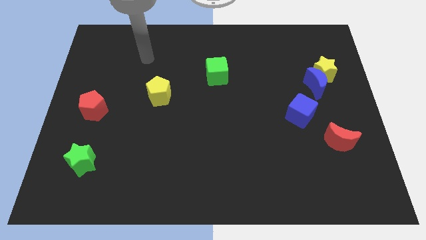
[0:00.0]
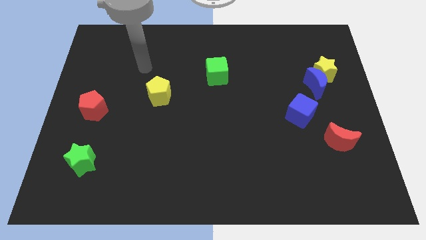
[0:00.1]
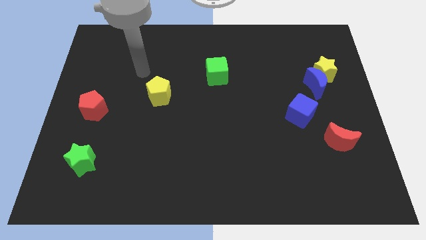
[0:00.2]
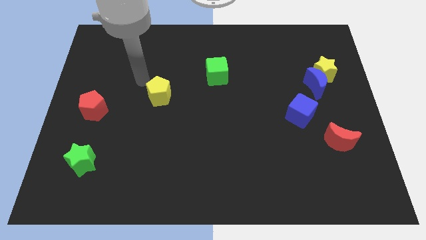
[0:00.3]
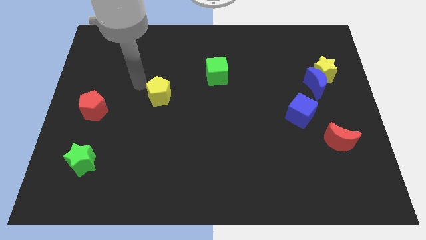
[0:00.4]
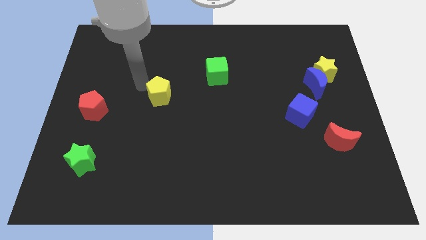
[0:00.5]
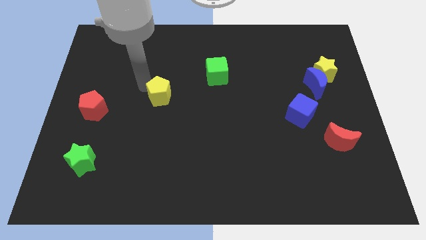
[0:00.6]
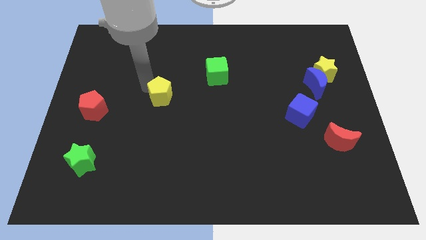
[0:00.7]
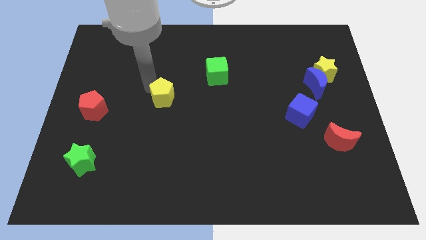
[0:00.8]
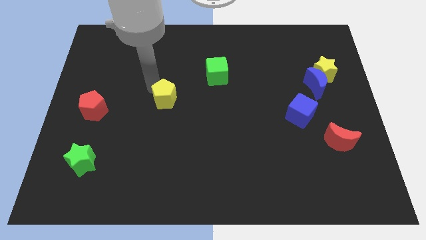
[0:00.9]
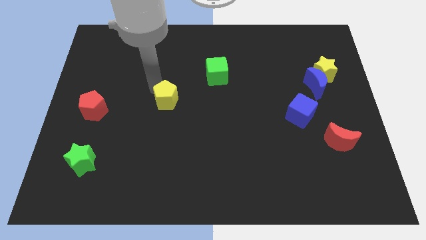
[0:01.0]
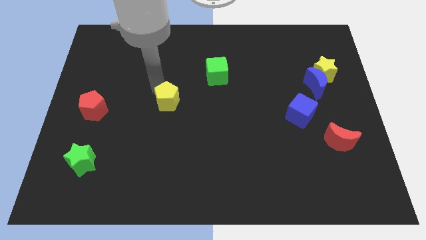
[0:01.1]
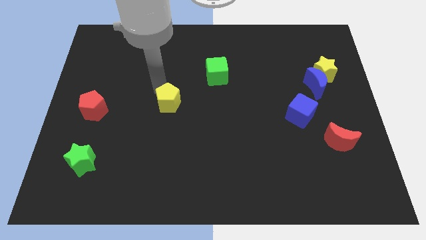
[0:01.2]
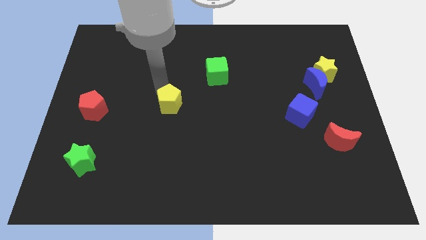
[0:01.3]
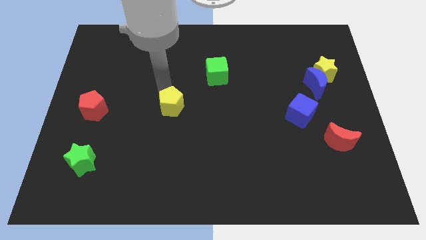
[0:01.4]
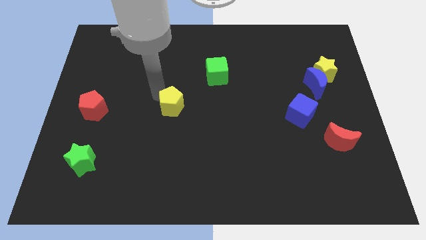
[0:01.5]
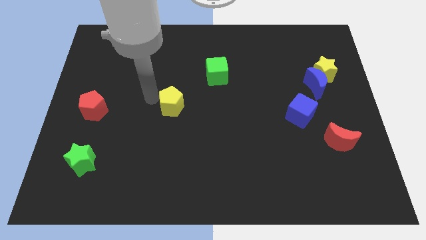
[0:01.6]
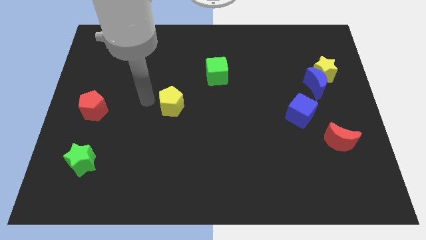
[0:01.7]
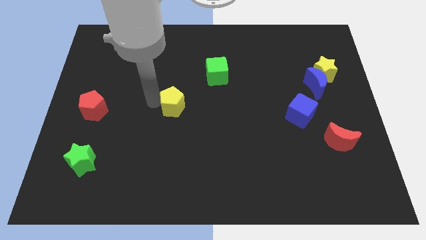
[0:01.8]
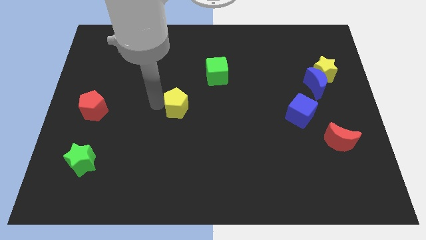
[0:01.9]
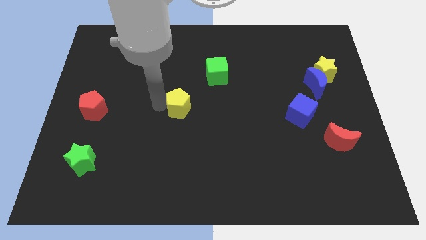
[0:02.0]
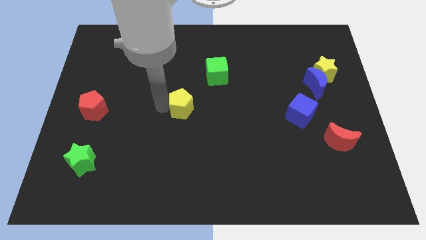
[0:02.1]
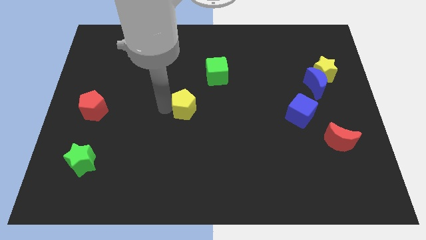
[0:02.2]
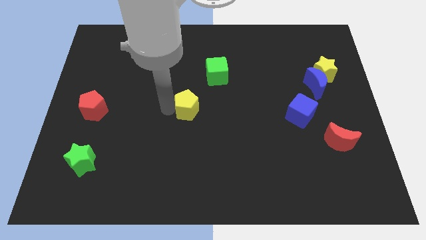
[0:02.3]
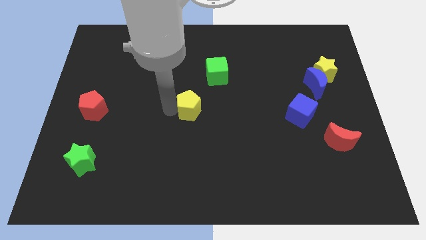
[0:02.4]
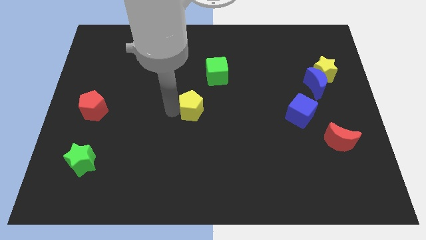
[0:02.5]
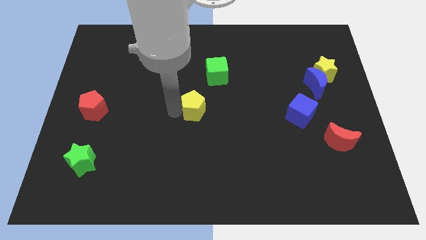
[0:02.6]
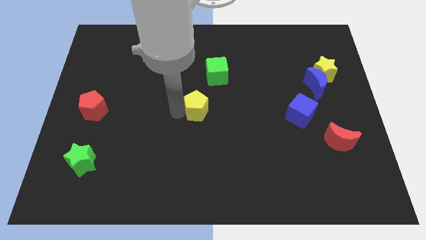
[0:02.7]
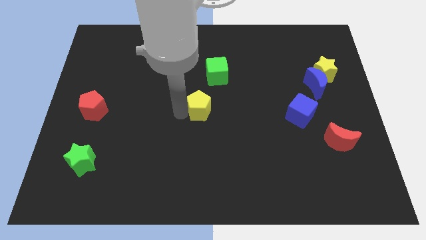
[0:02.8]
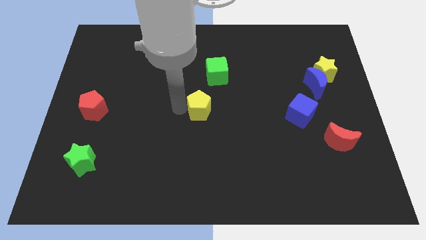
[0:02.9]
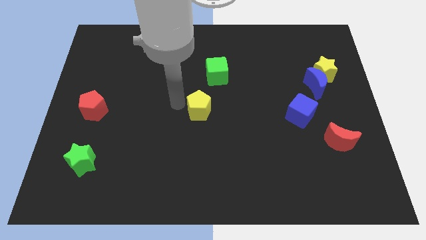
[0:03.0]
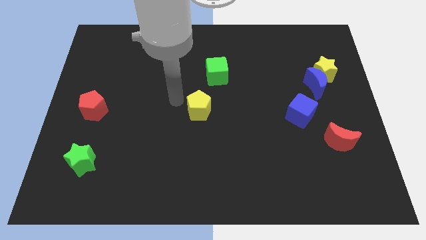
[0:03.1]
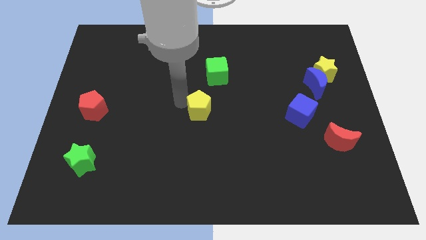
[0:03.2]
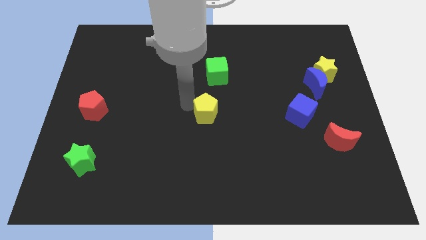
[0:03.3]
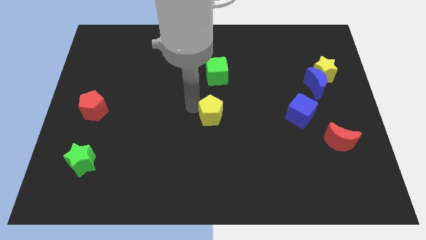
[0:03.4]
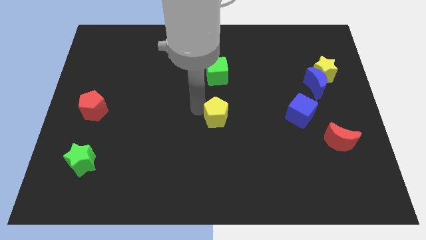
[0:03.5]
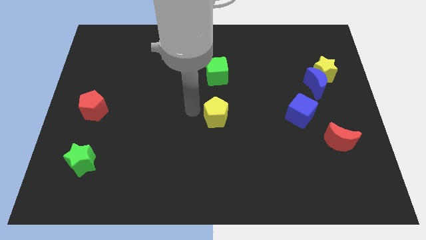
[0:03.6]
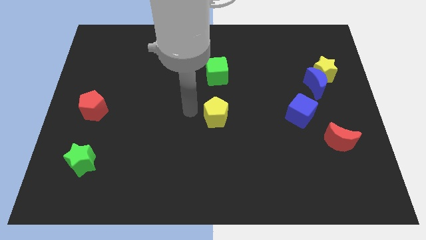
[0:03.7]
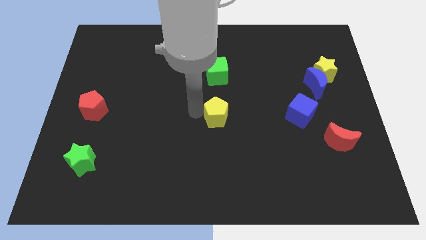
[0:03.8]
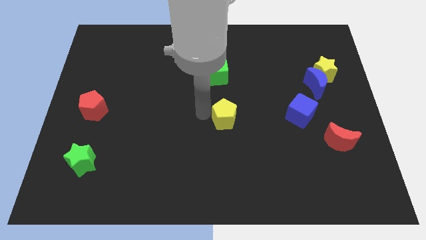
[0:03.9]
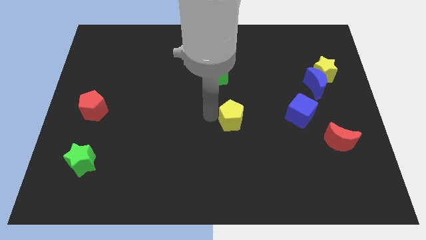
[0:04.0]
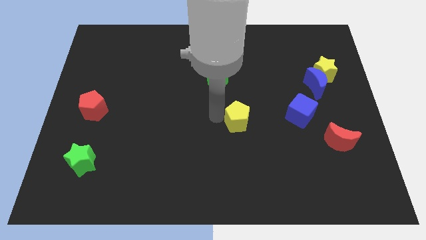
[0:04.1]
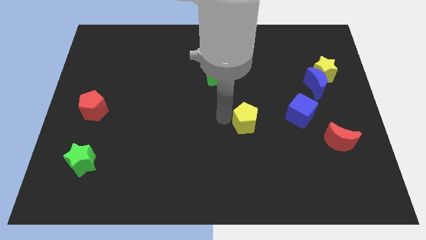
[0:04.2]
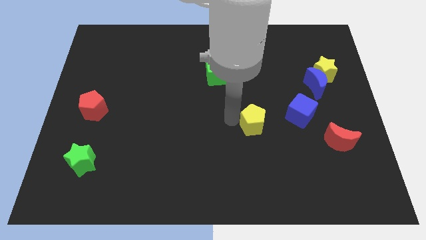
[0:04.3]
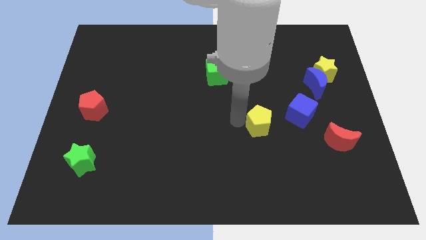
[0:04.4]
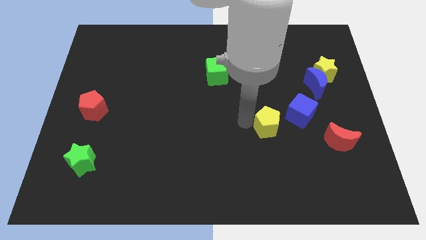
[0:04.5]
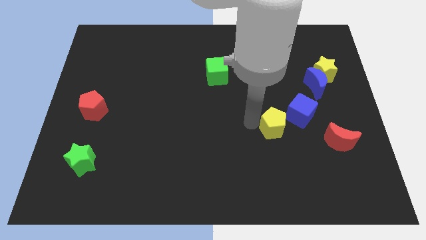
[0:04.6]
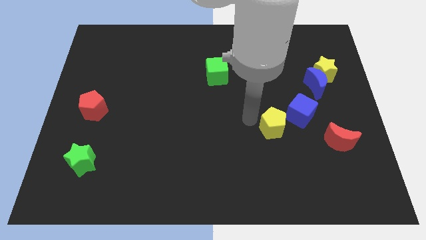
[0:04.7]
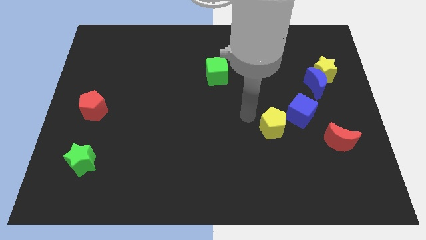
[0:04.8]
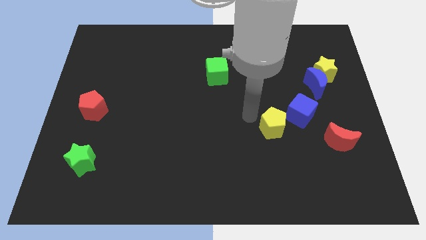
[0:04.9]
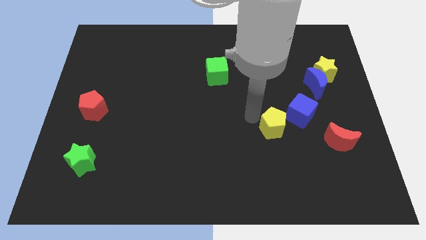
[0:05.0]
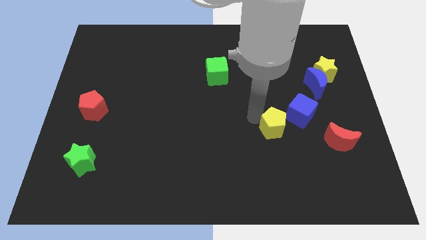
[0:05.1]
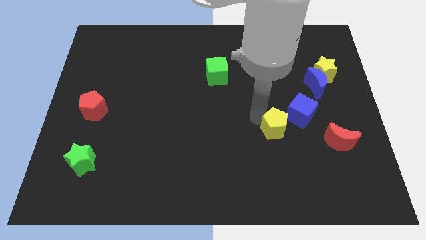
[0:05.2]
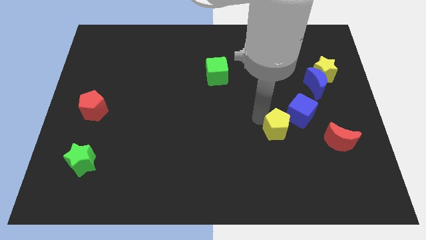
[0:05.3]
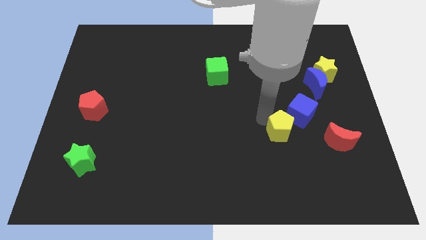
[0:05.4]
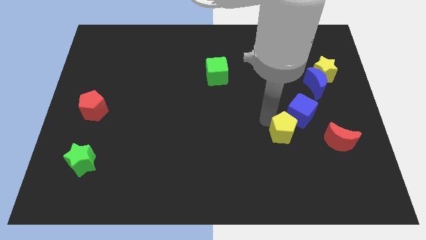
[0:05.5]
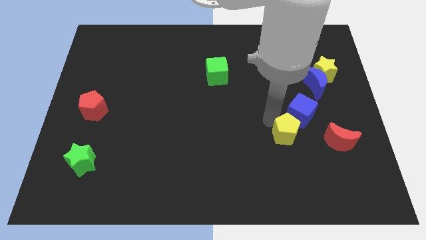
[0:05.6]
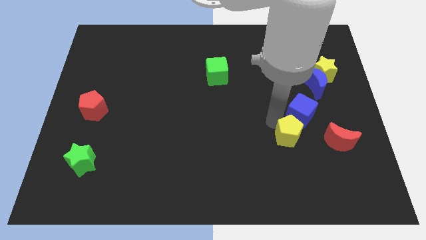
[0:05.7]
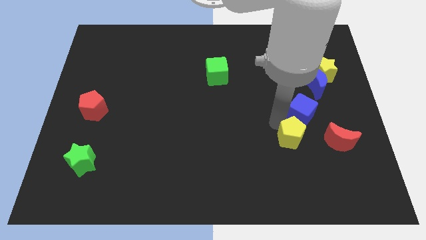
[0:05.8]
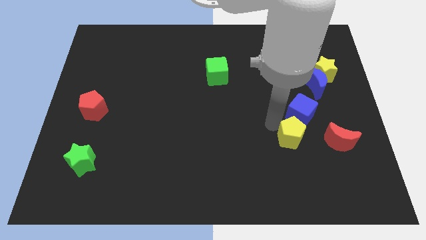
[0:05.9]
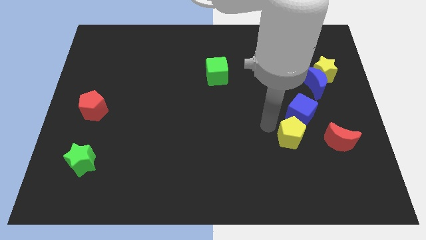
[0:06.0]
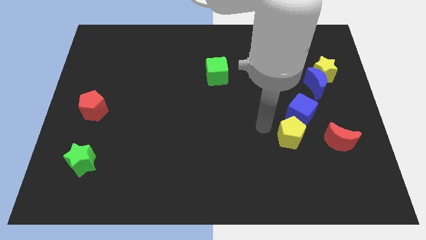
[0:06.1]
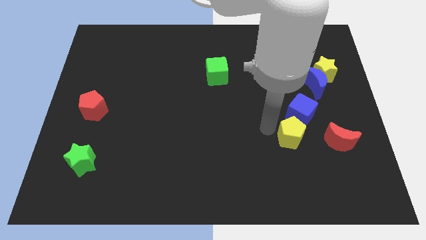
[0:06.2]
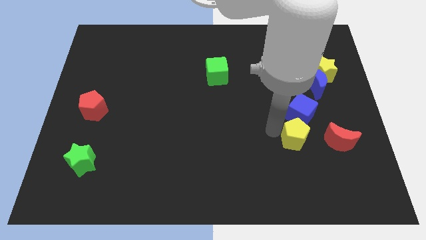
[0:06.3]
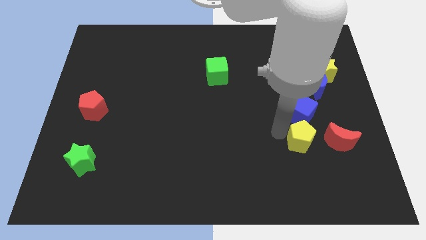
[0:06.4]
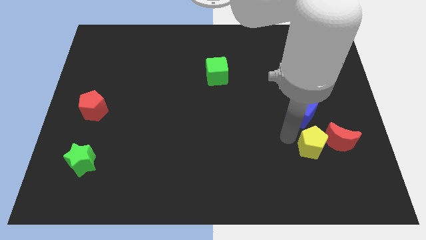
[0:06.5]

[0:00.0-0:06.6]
push the yellow pentagon next to the red moon
